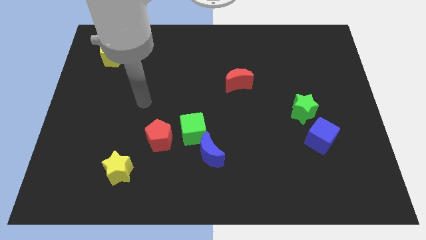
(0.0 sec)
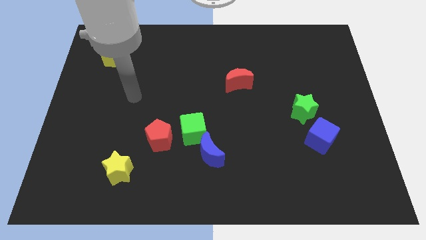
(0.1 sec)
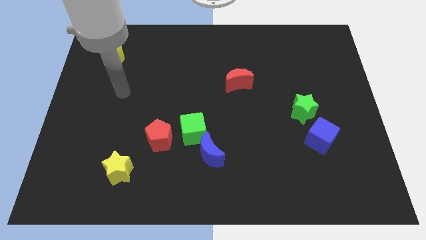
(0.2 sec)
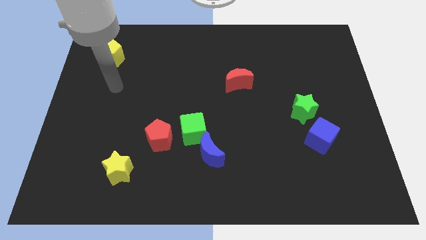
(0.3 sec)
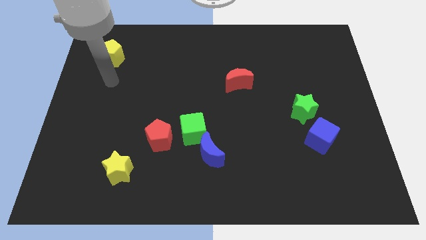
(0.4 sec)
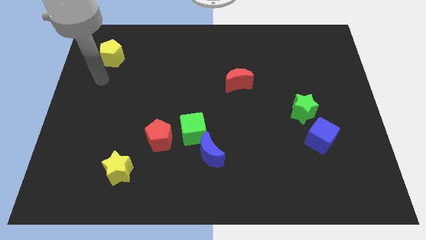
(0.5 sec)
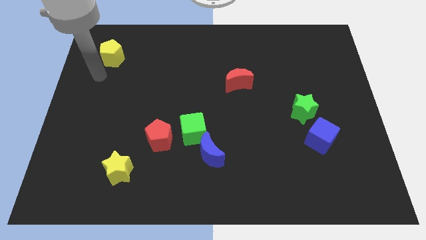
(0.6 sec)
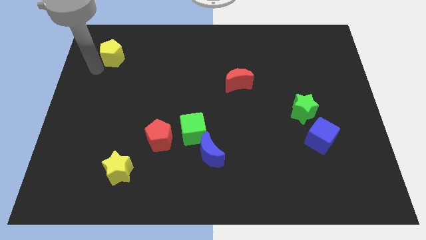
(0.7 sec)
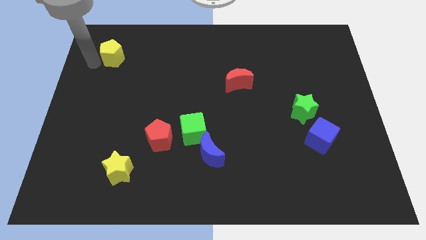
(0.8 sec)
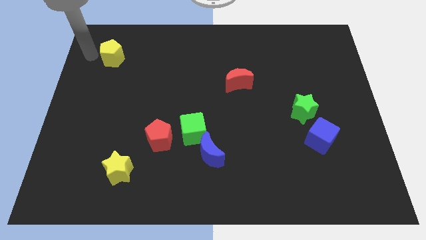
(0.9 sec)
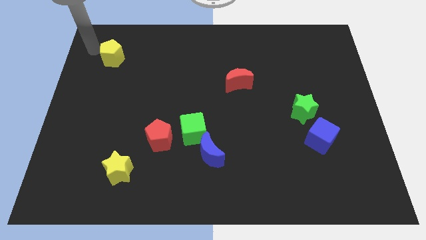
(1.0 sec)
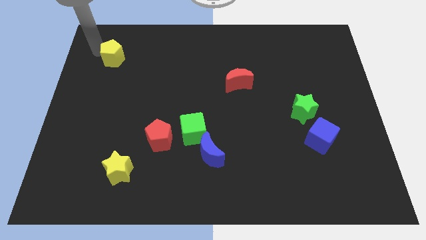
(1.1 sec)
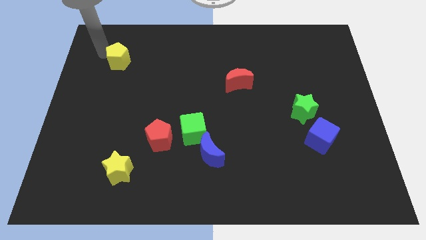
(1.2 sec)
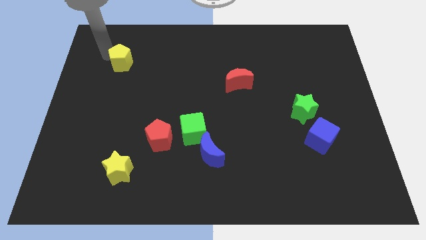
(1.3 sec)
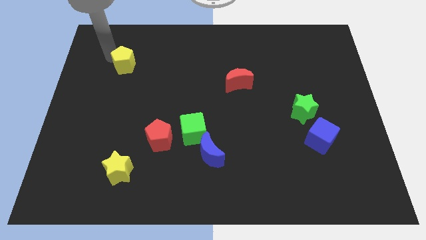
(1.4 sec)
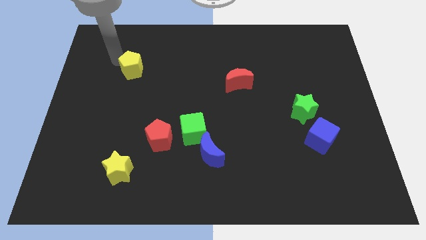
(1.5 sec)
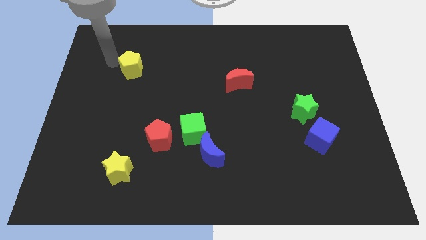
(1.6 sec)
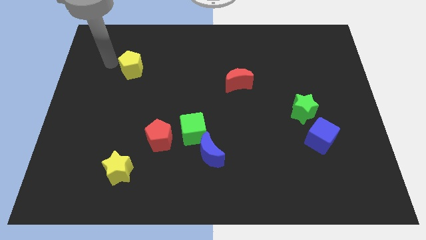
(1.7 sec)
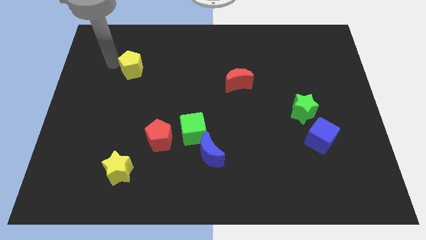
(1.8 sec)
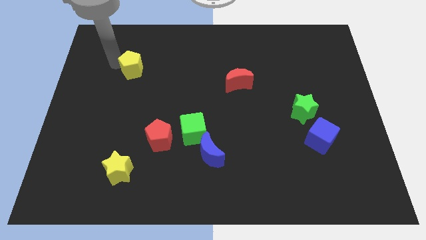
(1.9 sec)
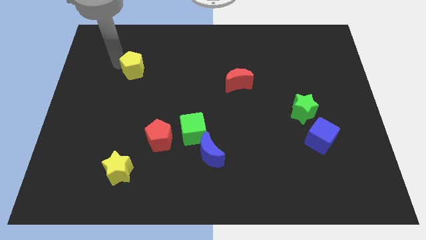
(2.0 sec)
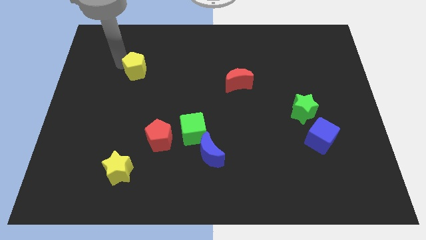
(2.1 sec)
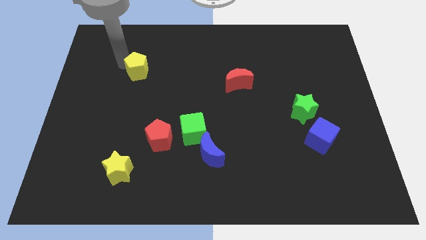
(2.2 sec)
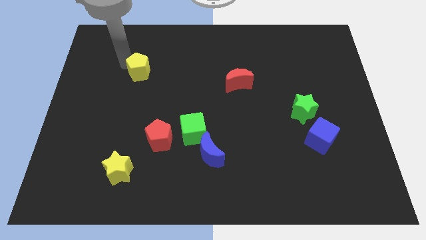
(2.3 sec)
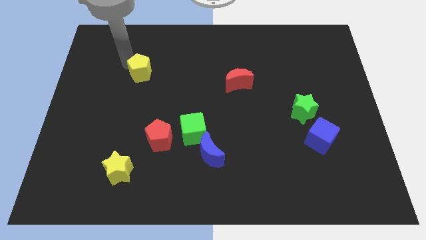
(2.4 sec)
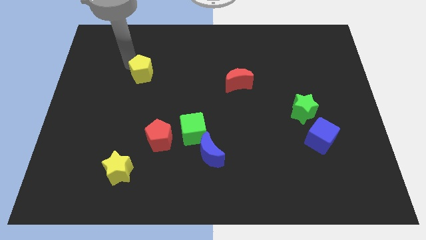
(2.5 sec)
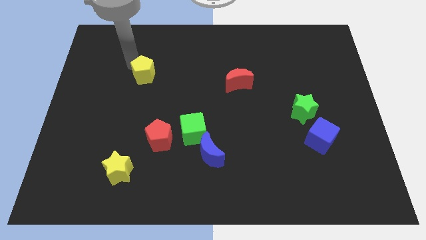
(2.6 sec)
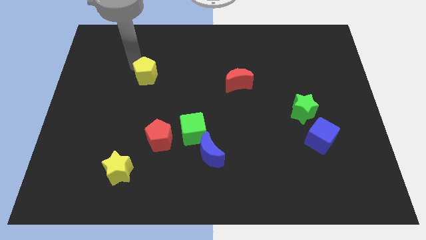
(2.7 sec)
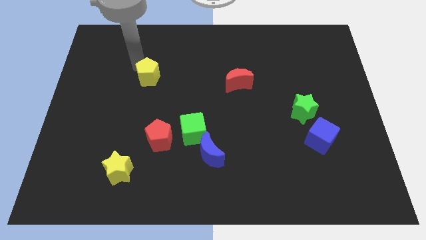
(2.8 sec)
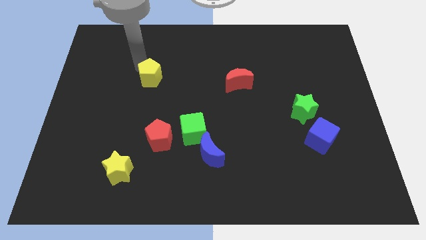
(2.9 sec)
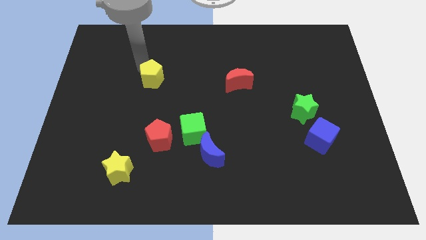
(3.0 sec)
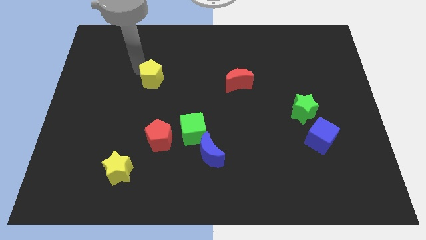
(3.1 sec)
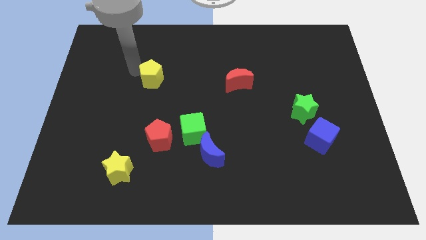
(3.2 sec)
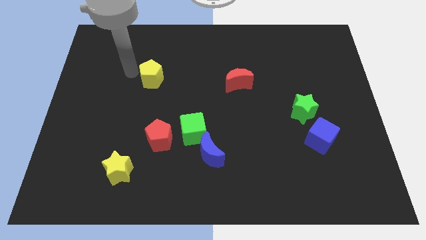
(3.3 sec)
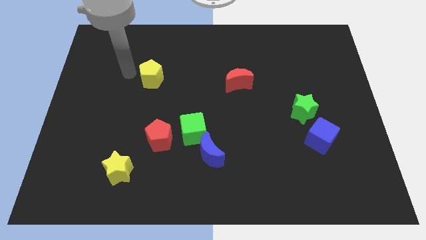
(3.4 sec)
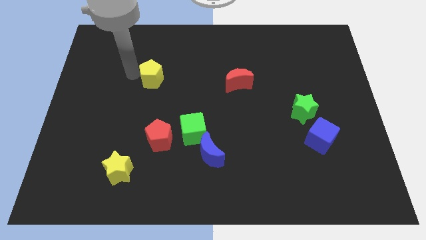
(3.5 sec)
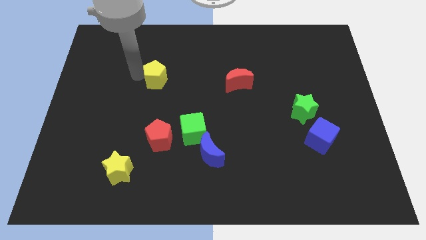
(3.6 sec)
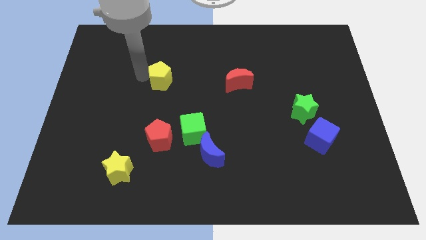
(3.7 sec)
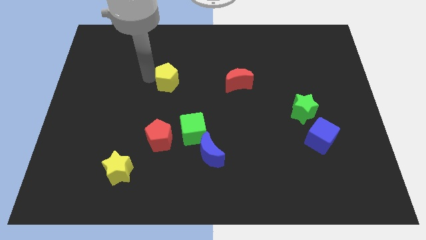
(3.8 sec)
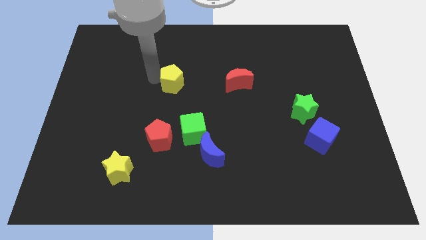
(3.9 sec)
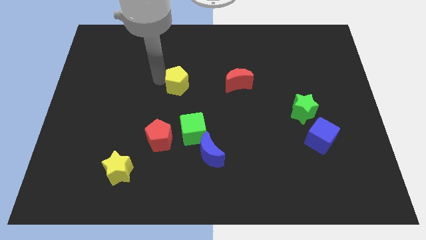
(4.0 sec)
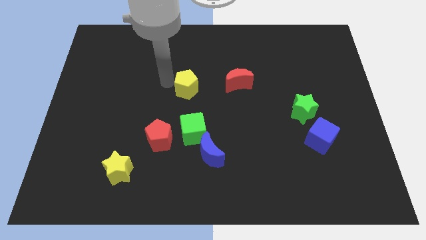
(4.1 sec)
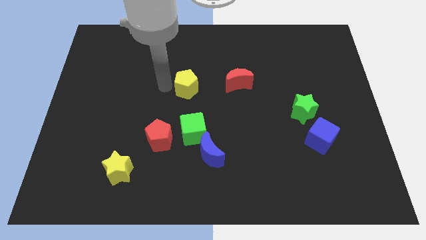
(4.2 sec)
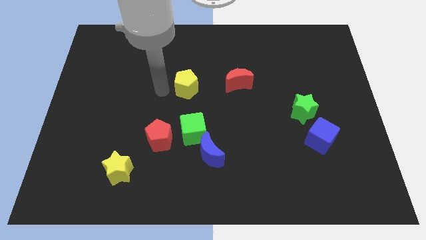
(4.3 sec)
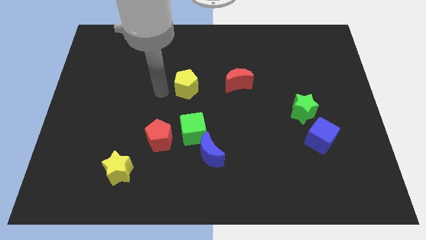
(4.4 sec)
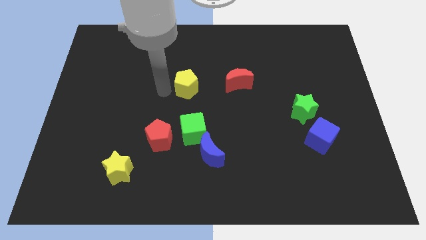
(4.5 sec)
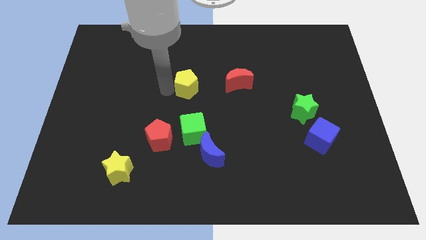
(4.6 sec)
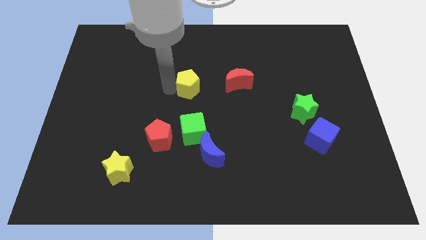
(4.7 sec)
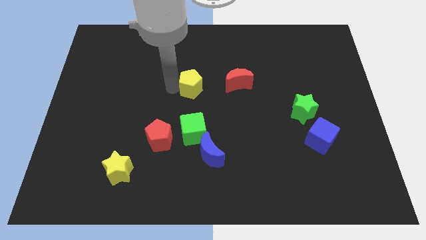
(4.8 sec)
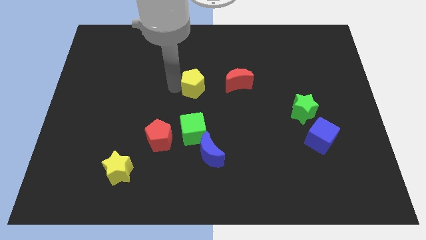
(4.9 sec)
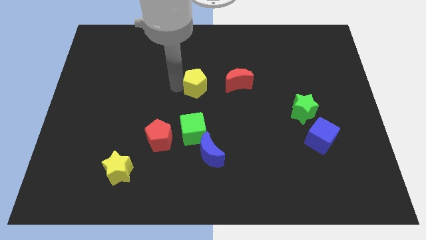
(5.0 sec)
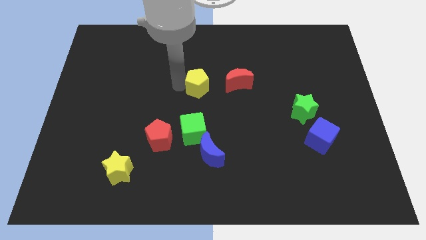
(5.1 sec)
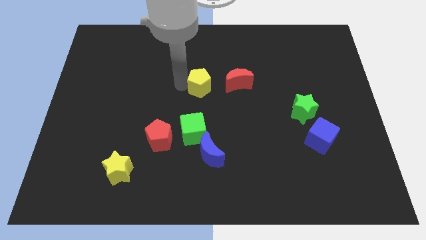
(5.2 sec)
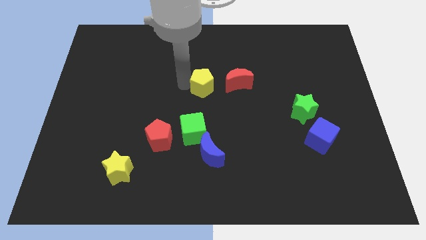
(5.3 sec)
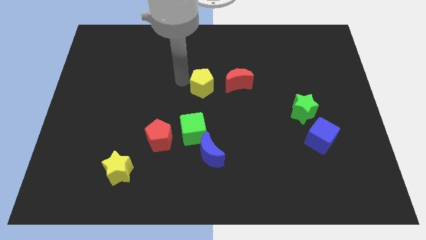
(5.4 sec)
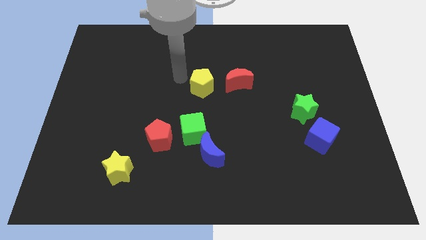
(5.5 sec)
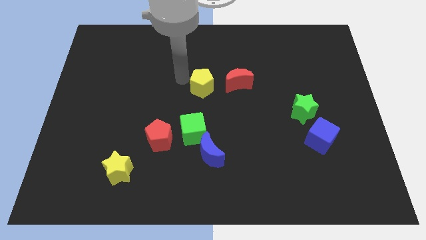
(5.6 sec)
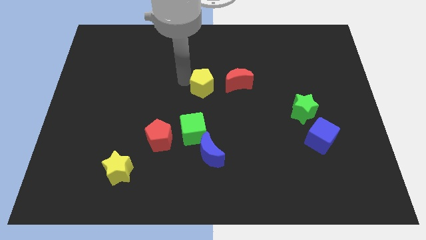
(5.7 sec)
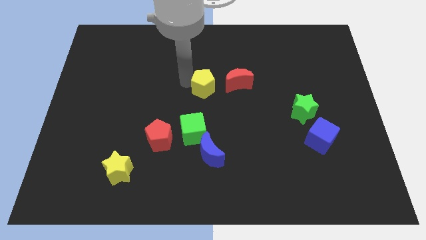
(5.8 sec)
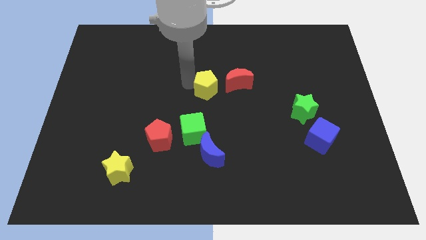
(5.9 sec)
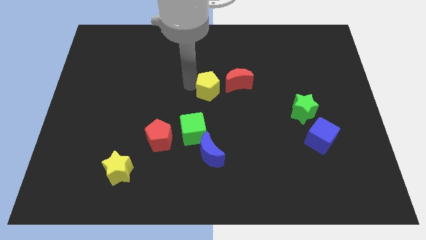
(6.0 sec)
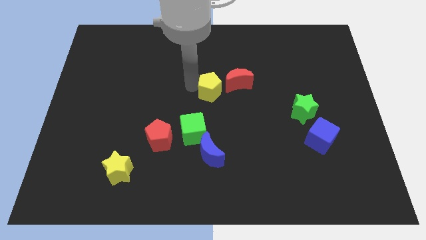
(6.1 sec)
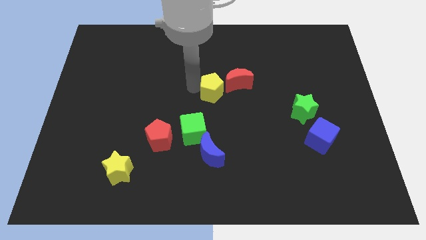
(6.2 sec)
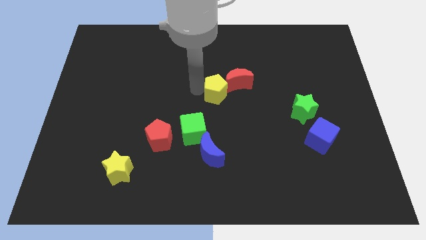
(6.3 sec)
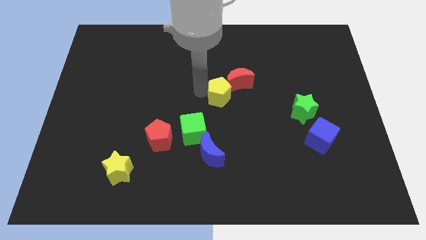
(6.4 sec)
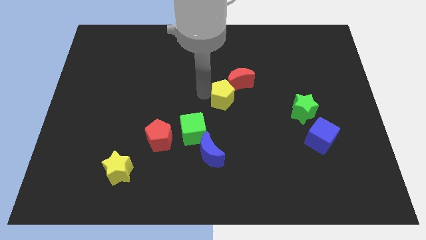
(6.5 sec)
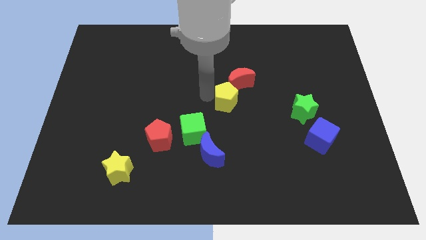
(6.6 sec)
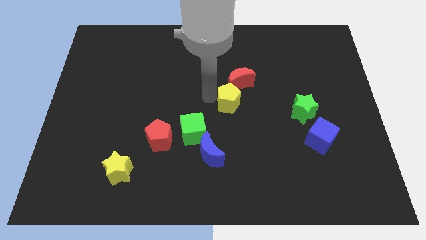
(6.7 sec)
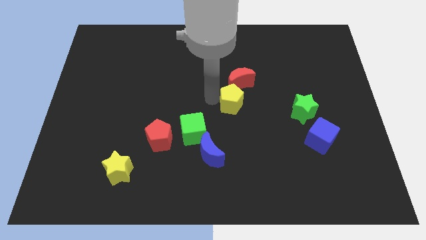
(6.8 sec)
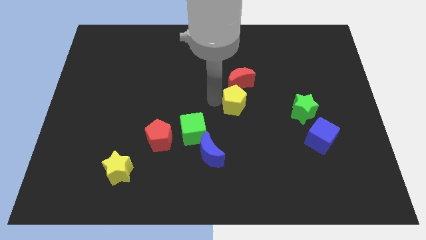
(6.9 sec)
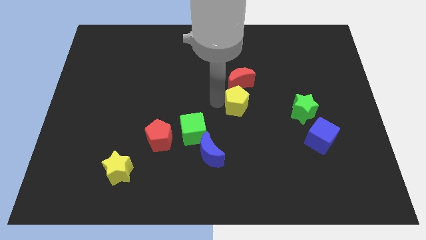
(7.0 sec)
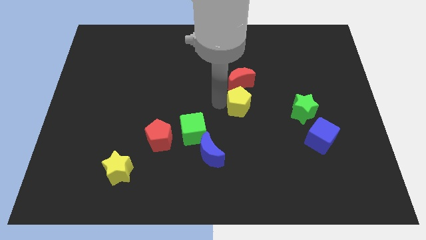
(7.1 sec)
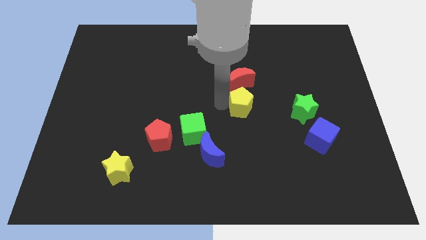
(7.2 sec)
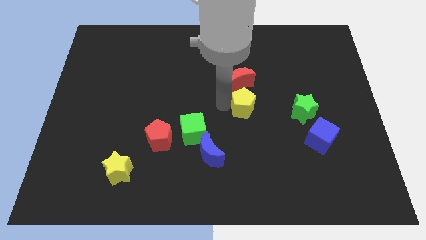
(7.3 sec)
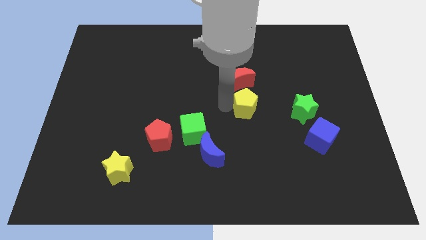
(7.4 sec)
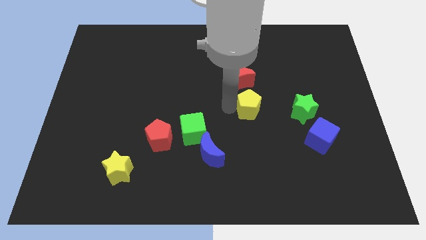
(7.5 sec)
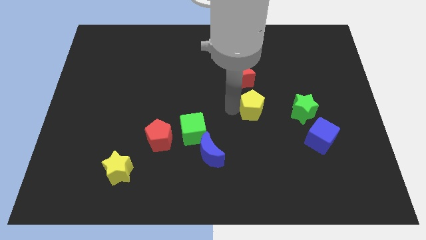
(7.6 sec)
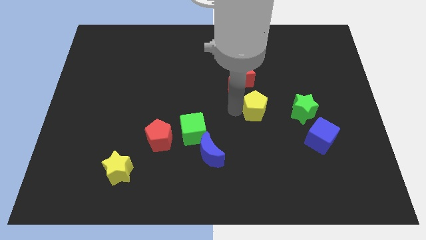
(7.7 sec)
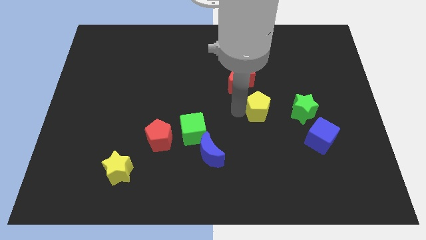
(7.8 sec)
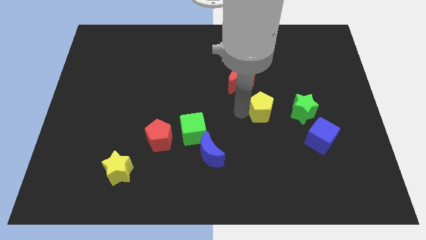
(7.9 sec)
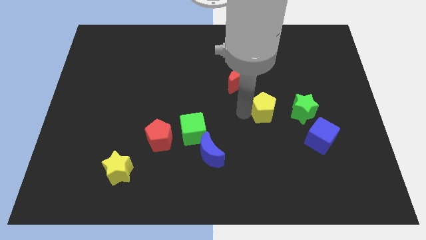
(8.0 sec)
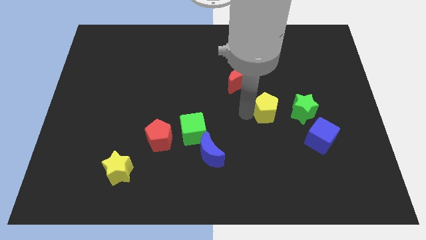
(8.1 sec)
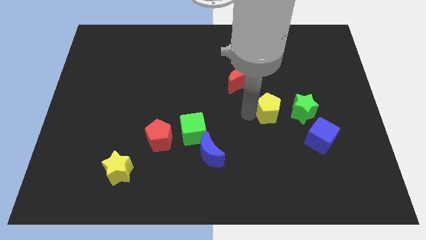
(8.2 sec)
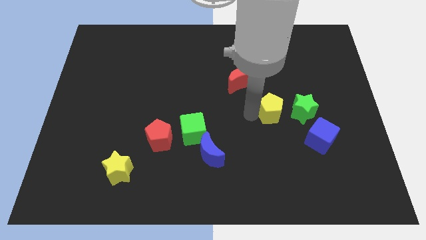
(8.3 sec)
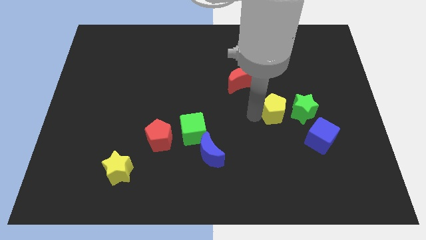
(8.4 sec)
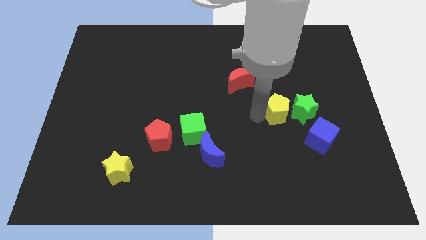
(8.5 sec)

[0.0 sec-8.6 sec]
push the yellow pentagon to the green star
